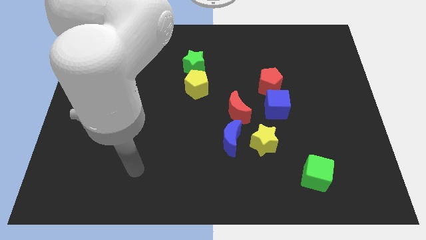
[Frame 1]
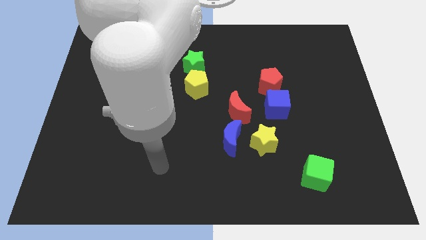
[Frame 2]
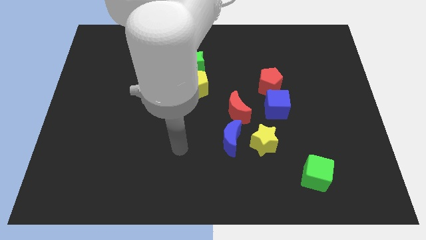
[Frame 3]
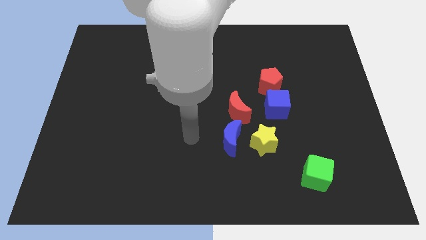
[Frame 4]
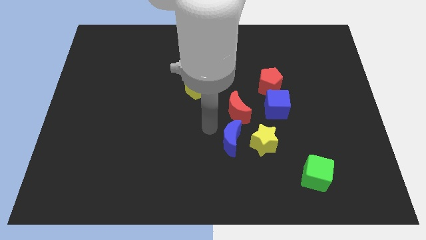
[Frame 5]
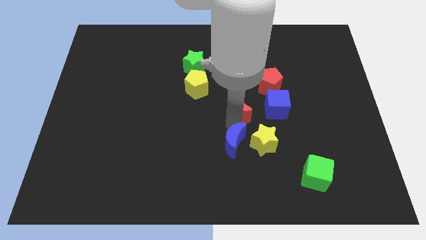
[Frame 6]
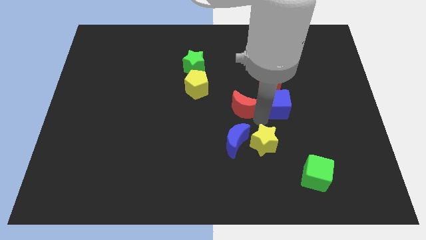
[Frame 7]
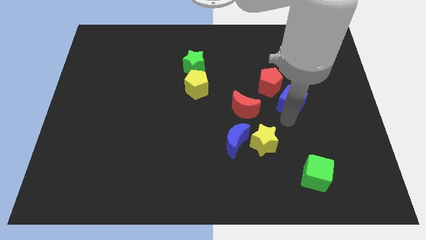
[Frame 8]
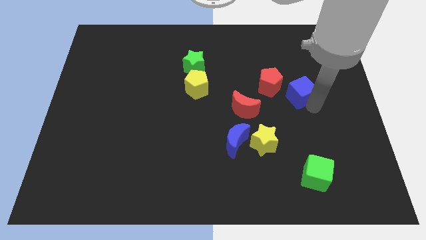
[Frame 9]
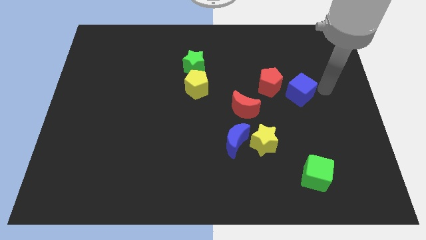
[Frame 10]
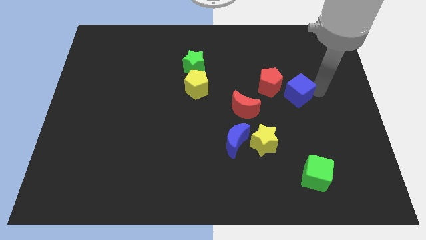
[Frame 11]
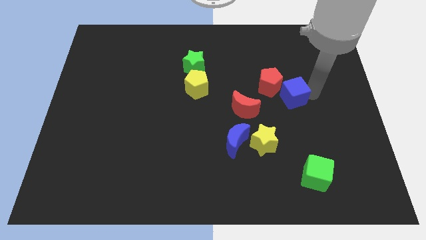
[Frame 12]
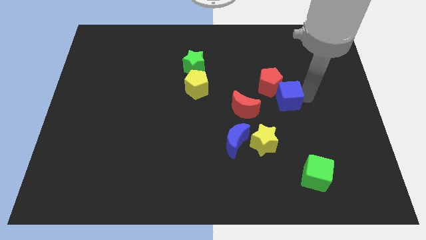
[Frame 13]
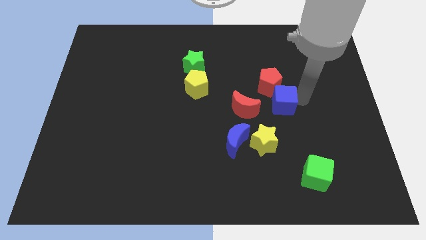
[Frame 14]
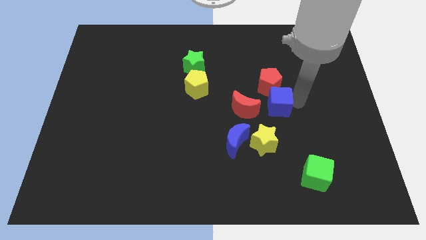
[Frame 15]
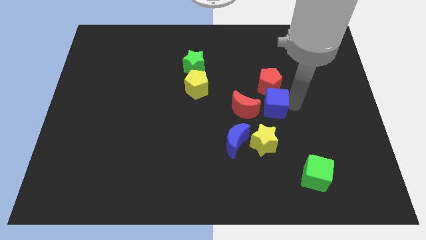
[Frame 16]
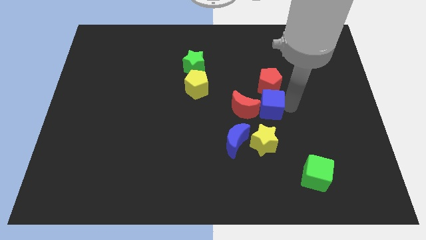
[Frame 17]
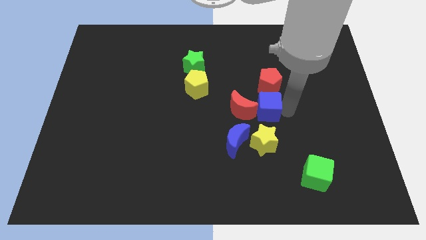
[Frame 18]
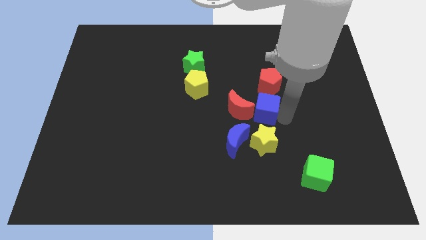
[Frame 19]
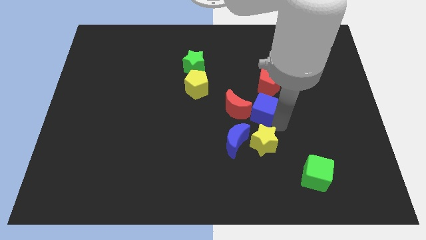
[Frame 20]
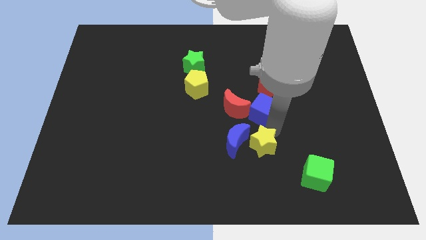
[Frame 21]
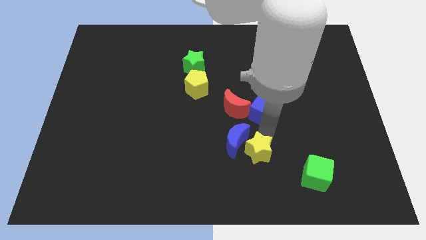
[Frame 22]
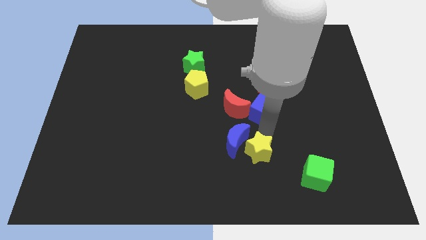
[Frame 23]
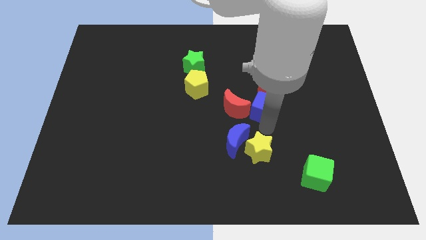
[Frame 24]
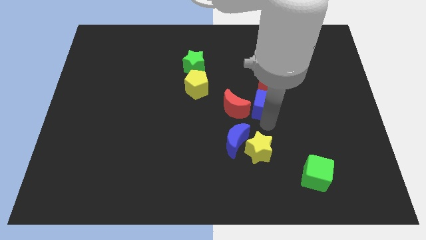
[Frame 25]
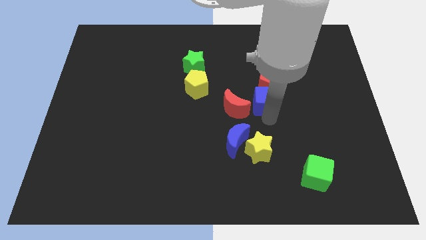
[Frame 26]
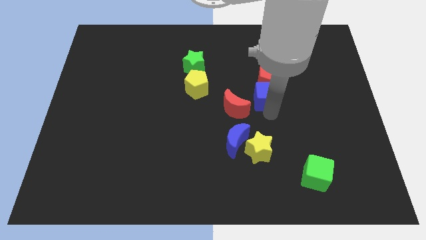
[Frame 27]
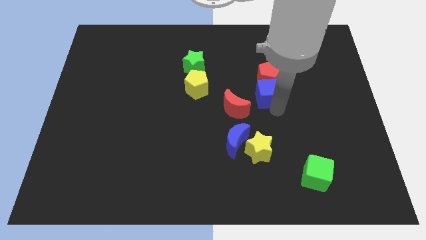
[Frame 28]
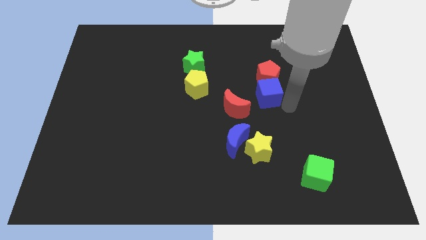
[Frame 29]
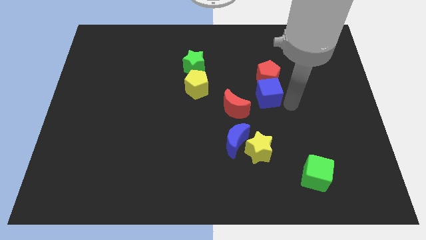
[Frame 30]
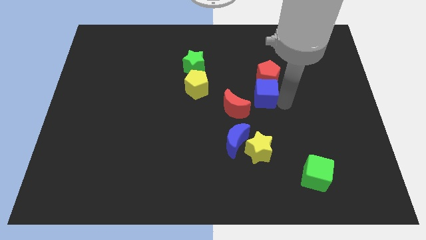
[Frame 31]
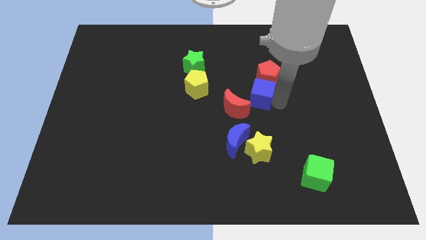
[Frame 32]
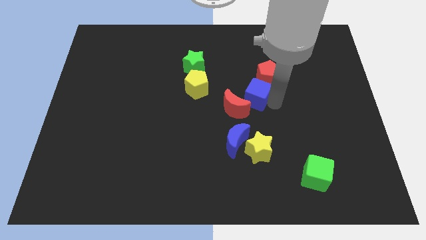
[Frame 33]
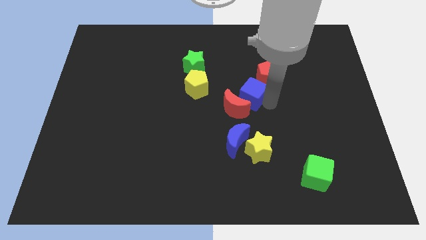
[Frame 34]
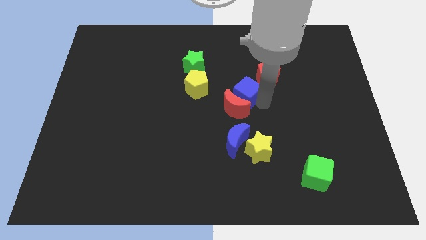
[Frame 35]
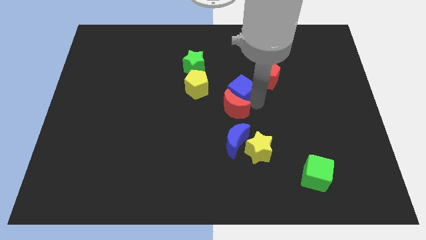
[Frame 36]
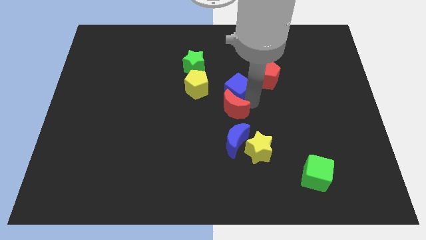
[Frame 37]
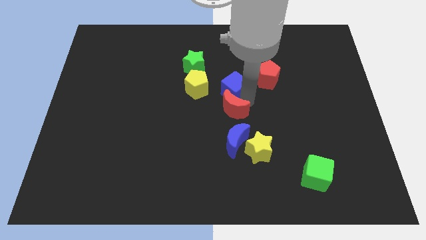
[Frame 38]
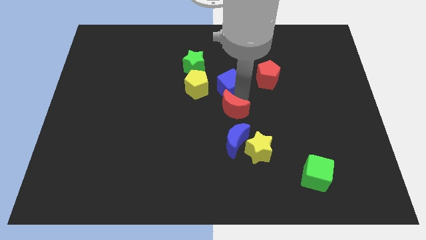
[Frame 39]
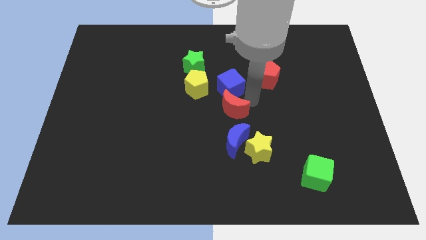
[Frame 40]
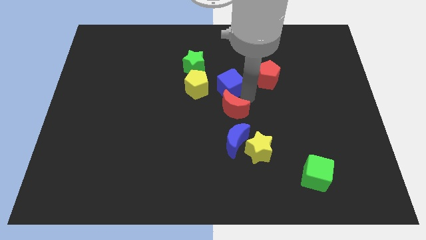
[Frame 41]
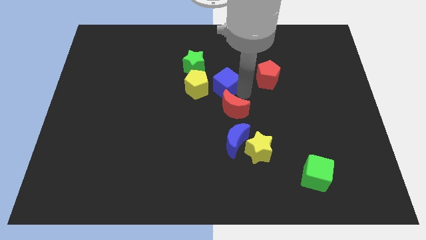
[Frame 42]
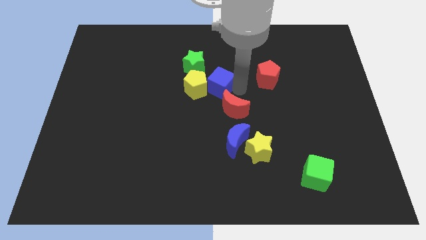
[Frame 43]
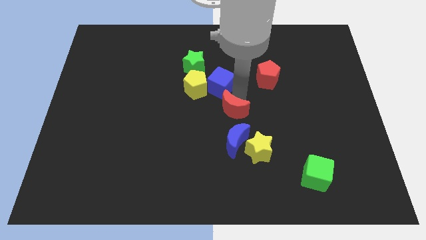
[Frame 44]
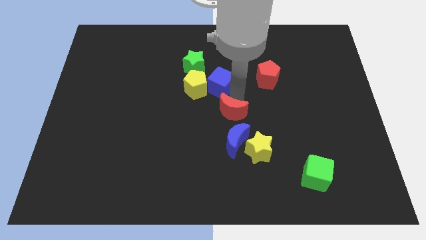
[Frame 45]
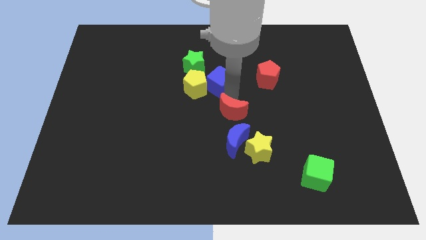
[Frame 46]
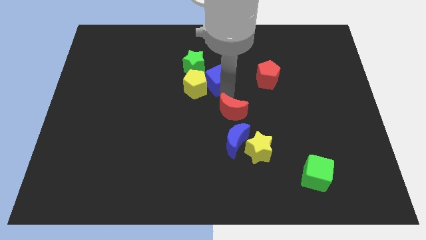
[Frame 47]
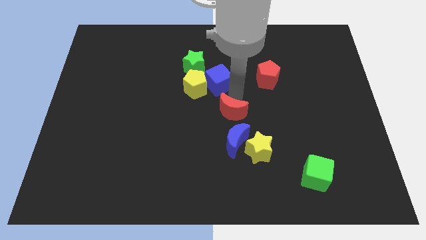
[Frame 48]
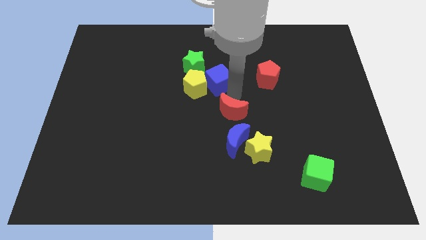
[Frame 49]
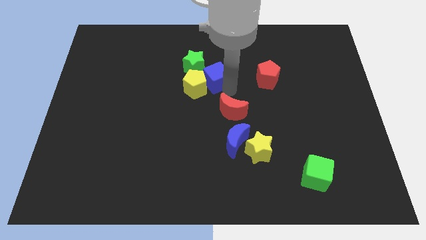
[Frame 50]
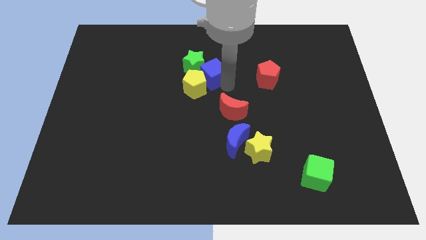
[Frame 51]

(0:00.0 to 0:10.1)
put the blue cube next to the green star

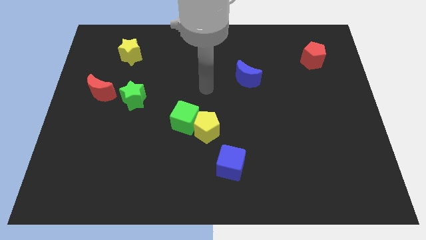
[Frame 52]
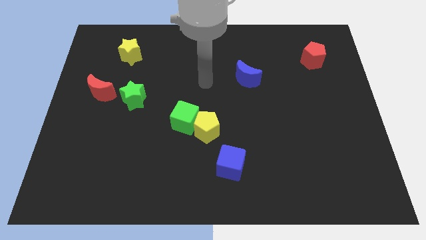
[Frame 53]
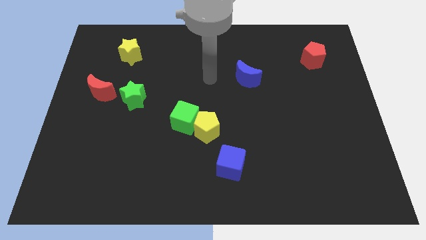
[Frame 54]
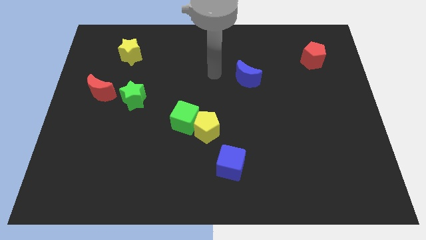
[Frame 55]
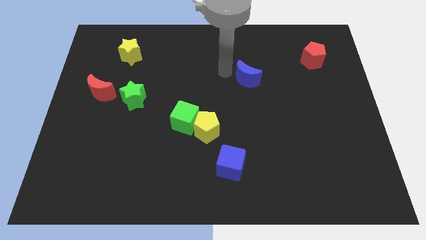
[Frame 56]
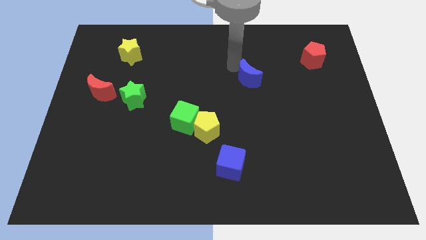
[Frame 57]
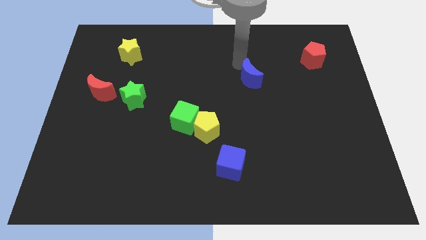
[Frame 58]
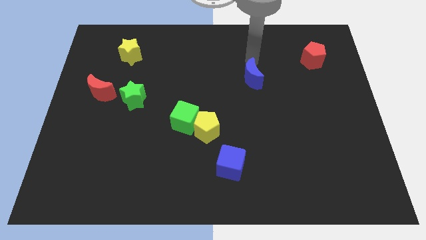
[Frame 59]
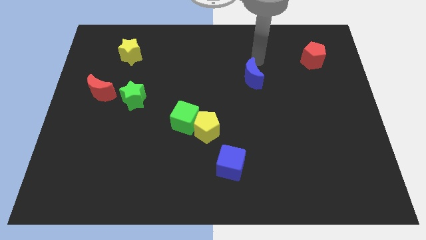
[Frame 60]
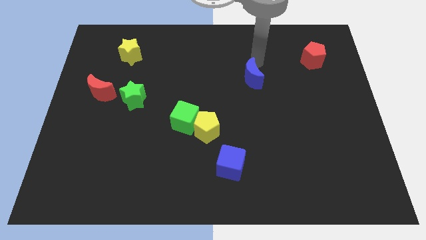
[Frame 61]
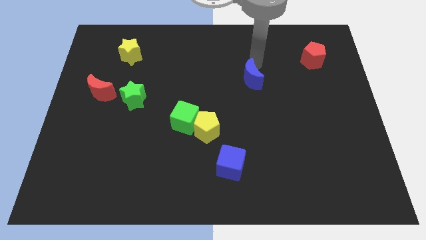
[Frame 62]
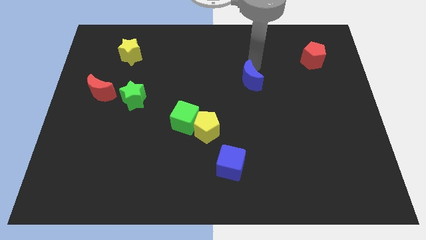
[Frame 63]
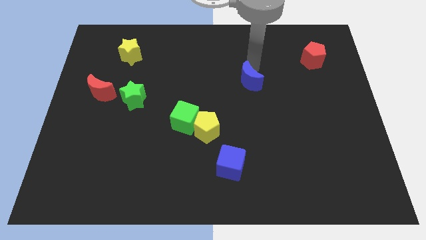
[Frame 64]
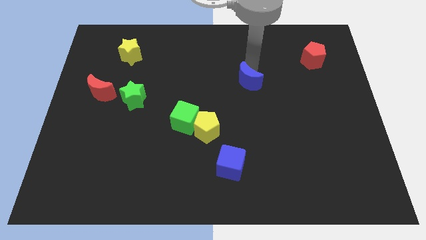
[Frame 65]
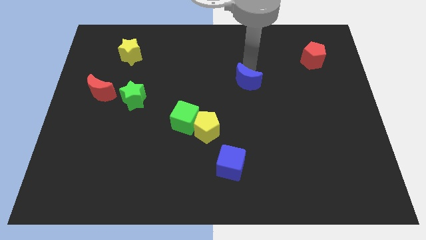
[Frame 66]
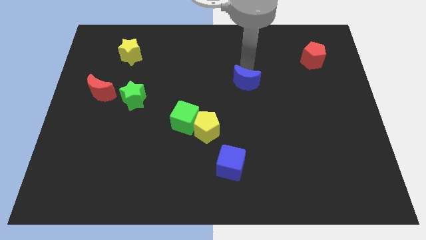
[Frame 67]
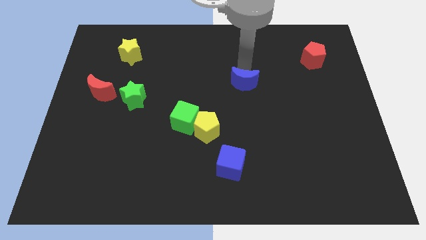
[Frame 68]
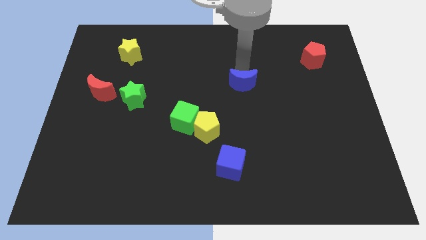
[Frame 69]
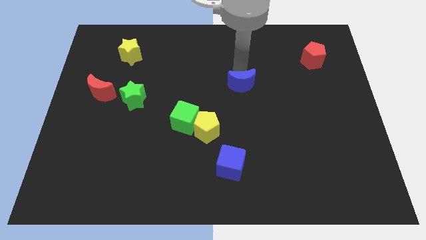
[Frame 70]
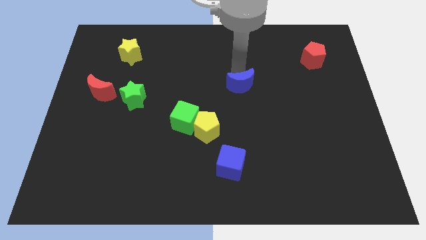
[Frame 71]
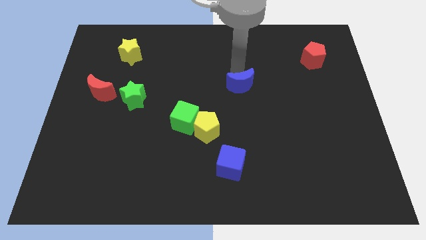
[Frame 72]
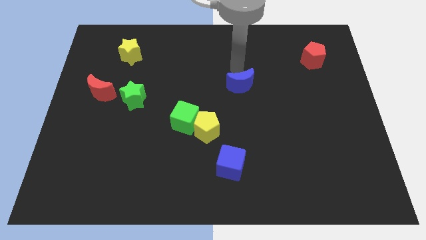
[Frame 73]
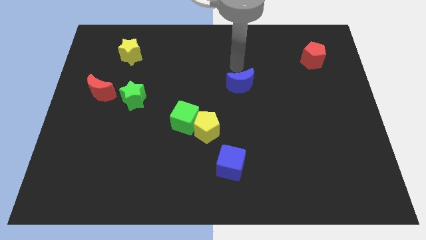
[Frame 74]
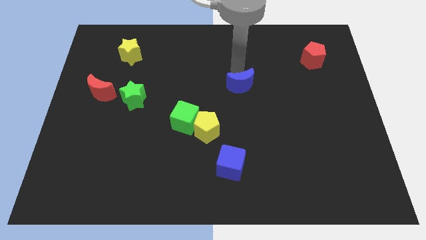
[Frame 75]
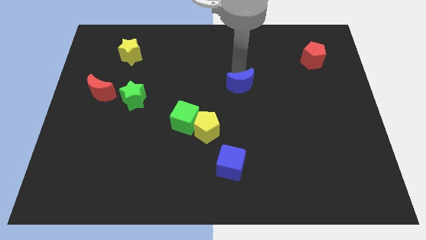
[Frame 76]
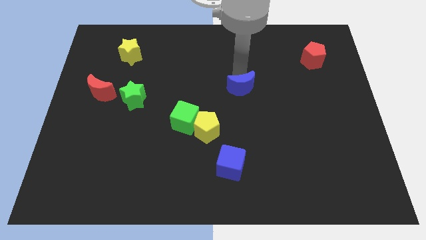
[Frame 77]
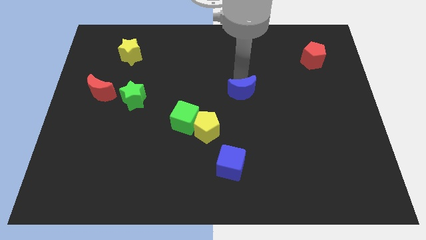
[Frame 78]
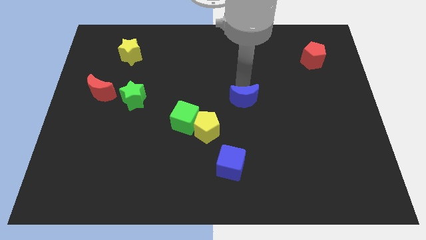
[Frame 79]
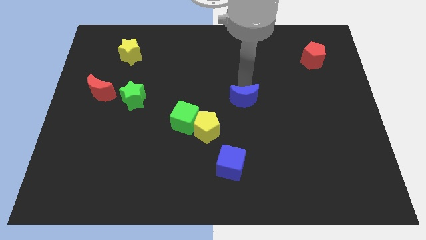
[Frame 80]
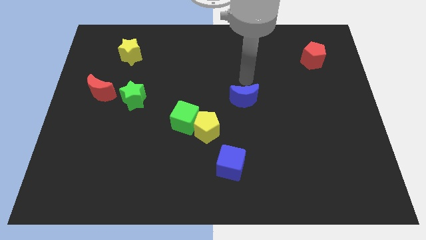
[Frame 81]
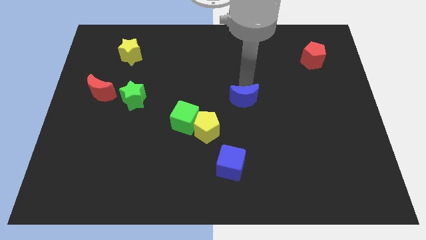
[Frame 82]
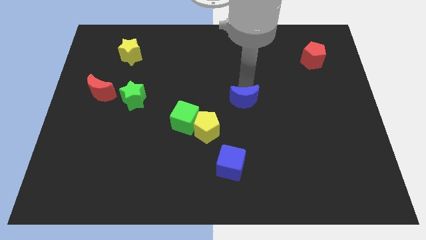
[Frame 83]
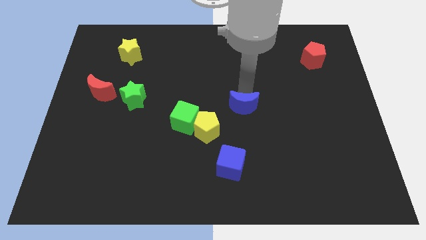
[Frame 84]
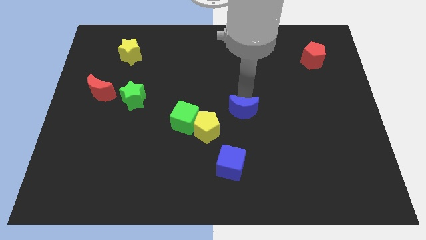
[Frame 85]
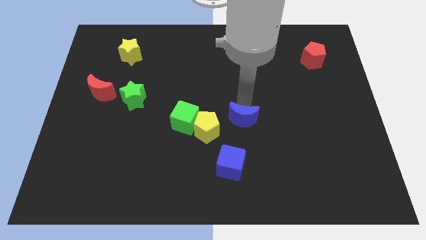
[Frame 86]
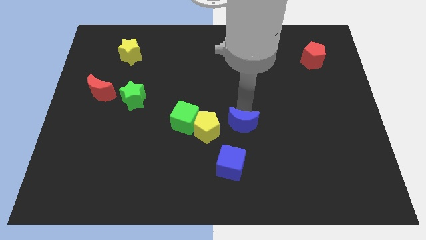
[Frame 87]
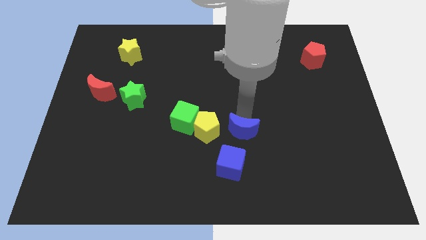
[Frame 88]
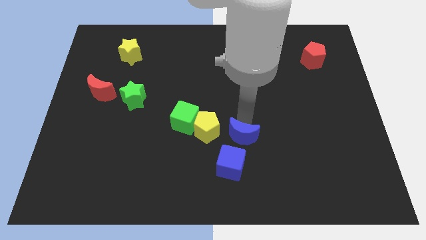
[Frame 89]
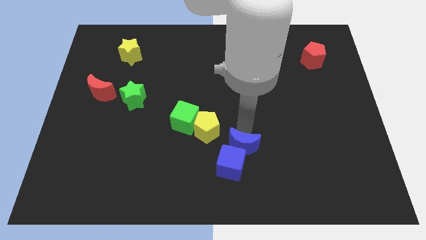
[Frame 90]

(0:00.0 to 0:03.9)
move the blue moon next to the blue cube
